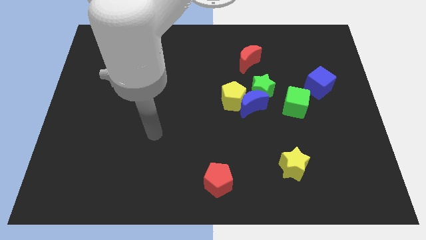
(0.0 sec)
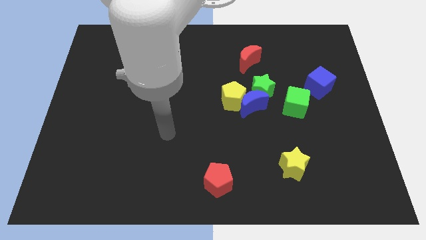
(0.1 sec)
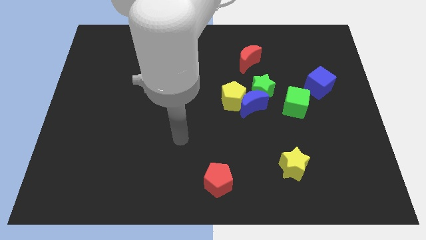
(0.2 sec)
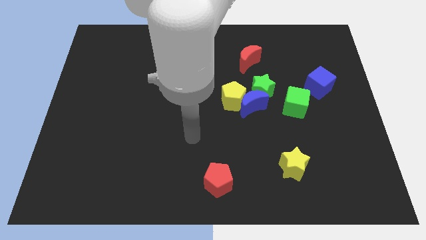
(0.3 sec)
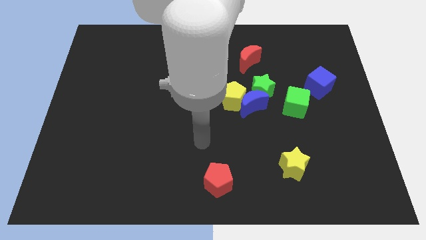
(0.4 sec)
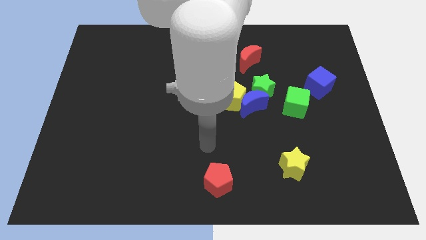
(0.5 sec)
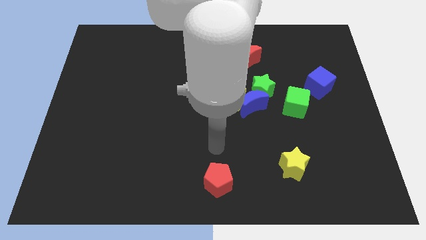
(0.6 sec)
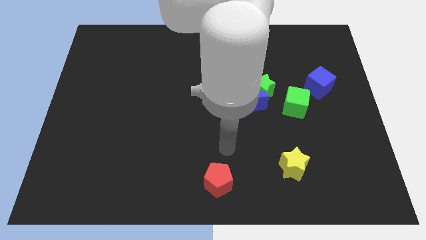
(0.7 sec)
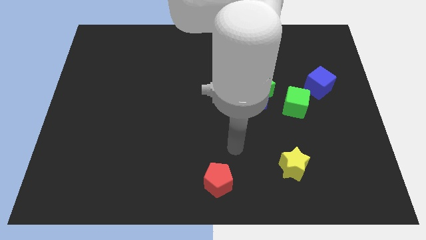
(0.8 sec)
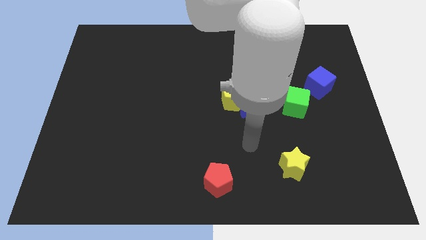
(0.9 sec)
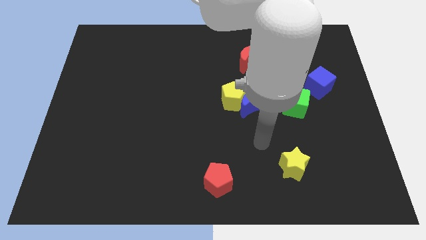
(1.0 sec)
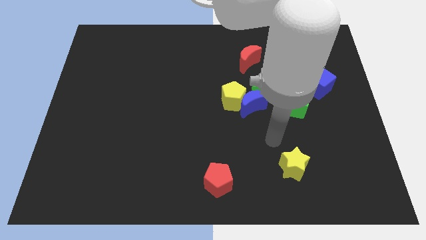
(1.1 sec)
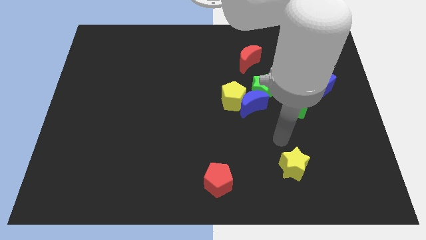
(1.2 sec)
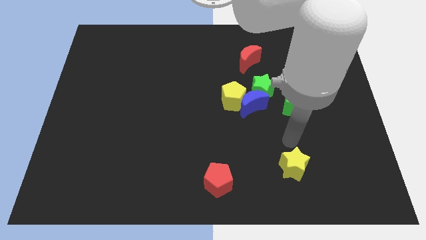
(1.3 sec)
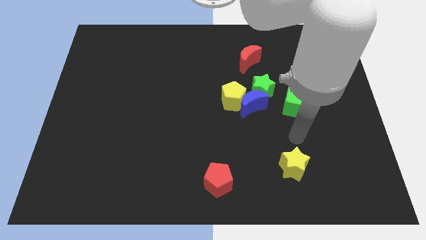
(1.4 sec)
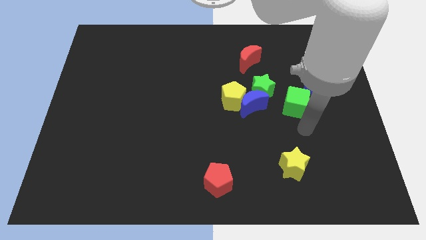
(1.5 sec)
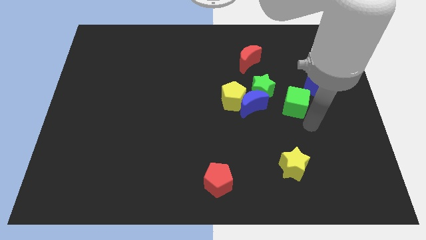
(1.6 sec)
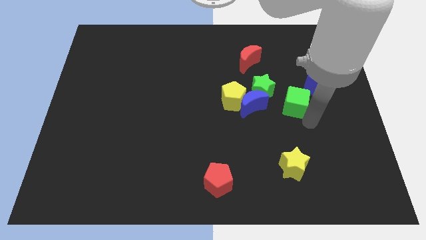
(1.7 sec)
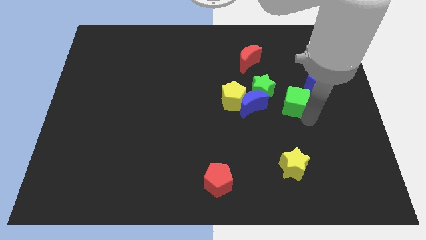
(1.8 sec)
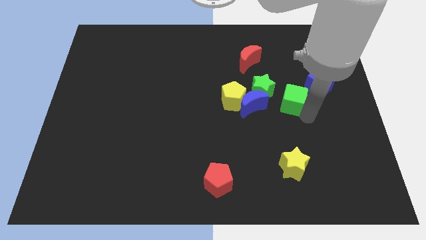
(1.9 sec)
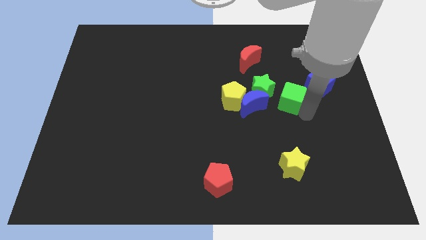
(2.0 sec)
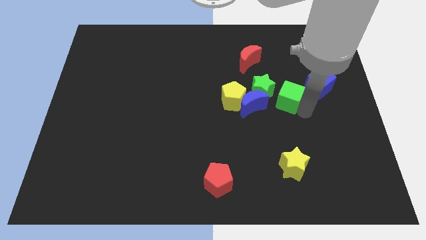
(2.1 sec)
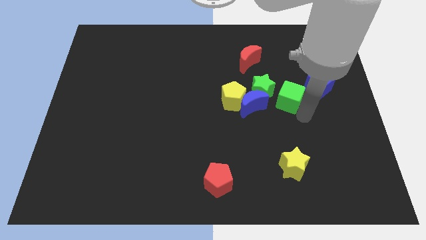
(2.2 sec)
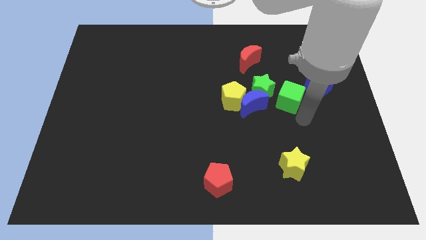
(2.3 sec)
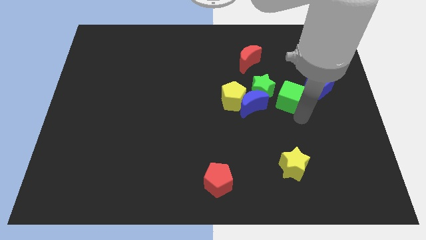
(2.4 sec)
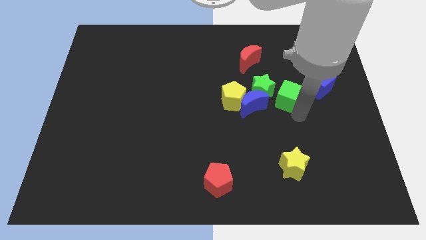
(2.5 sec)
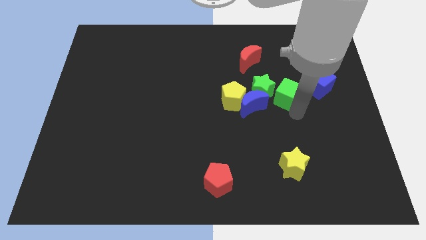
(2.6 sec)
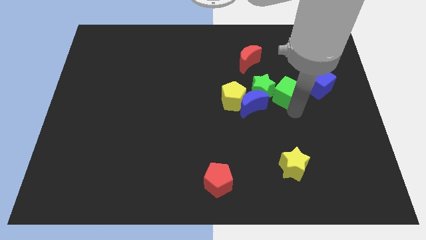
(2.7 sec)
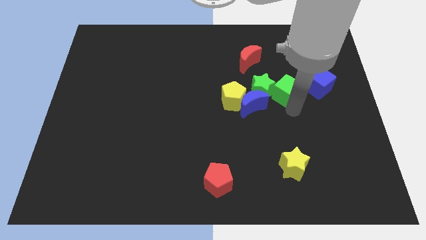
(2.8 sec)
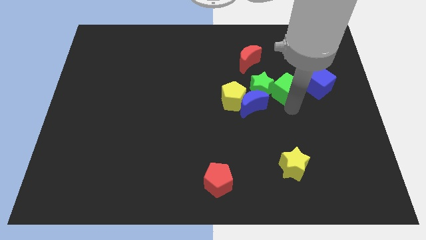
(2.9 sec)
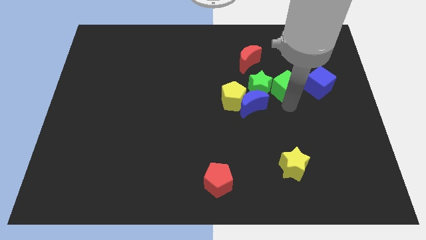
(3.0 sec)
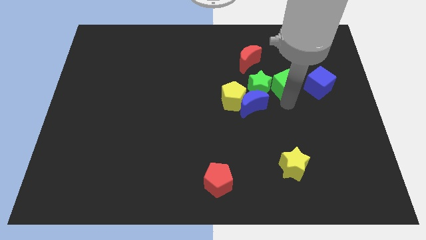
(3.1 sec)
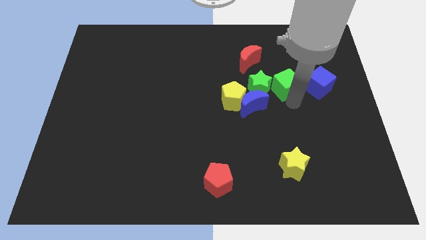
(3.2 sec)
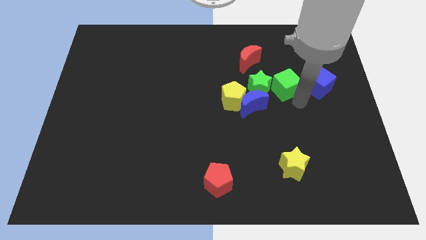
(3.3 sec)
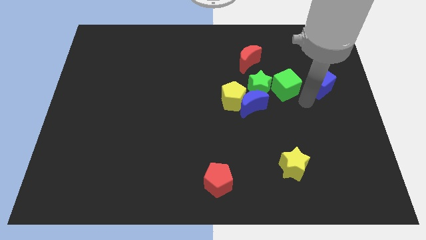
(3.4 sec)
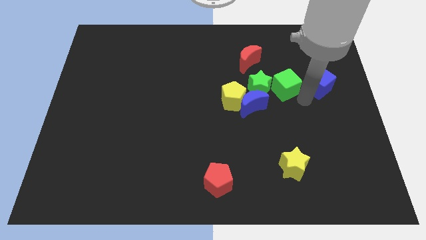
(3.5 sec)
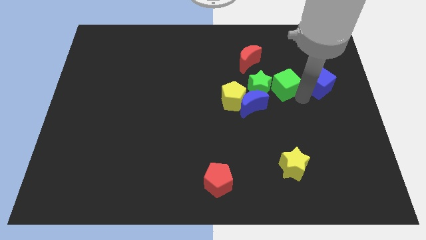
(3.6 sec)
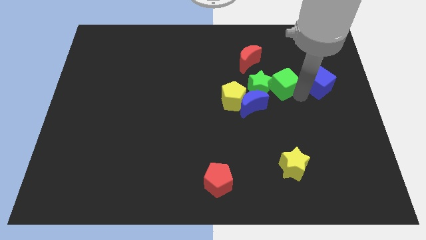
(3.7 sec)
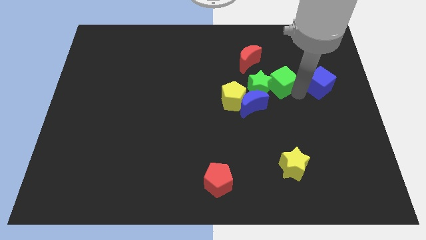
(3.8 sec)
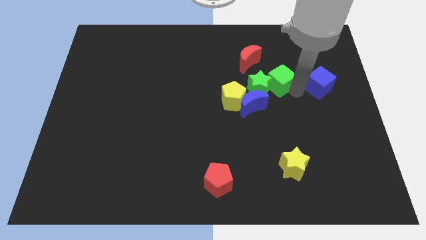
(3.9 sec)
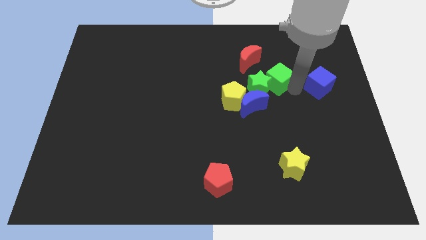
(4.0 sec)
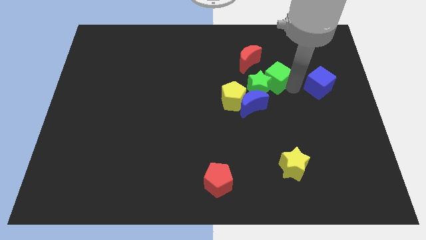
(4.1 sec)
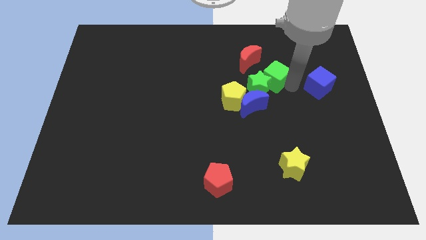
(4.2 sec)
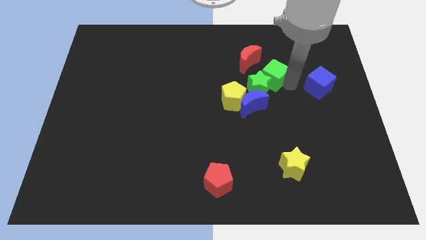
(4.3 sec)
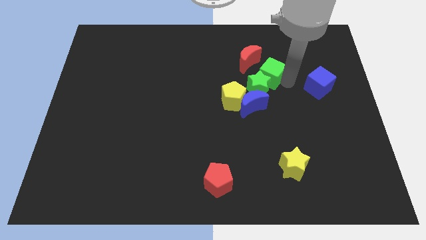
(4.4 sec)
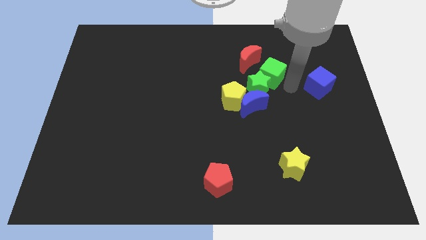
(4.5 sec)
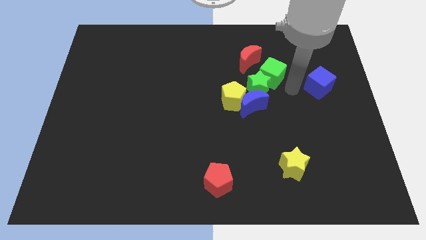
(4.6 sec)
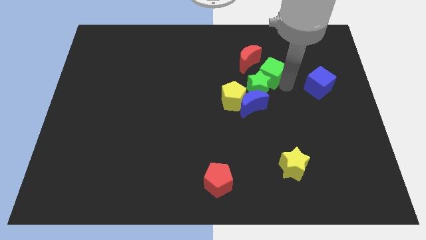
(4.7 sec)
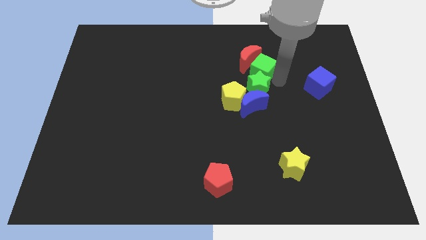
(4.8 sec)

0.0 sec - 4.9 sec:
put the green cube towards the red moon

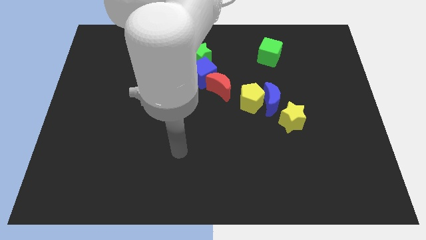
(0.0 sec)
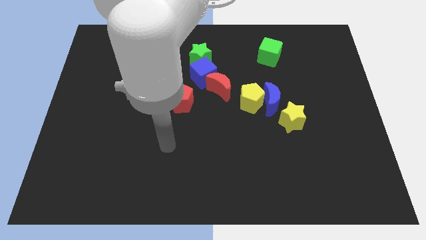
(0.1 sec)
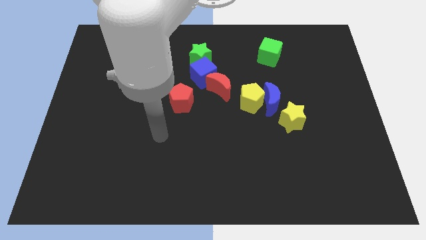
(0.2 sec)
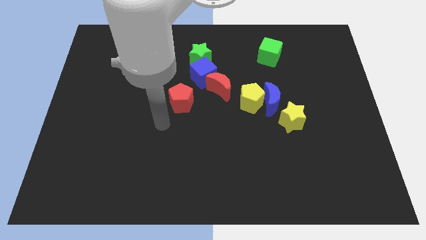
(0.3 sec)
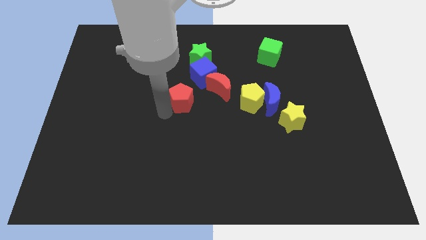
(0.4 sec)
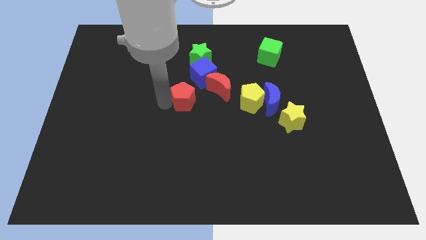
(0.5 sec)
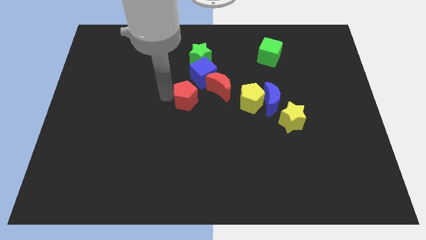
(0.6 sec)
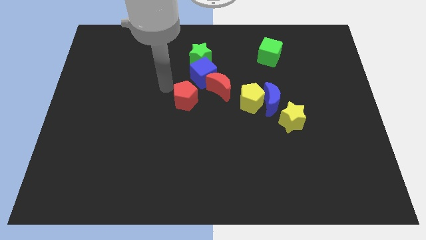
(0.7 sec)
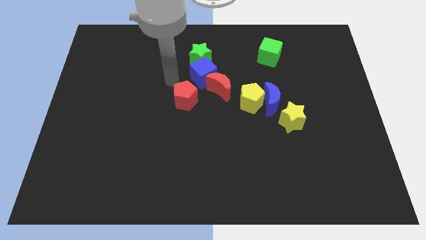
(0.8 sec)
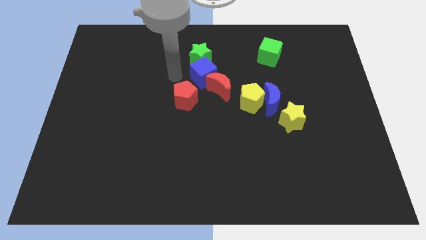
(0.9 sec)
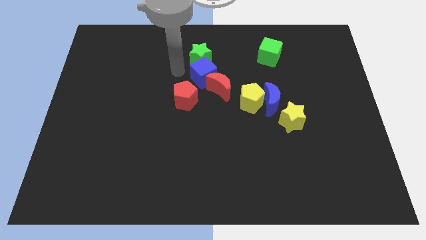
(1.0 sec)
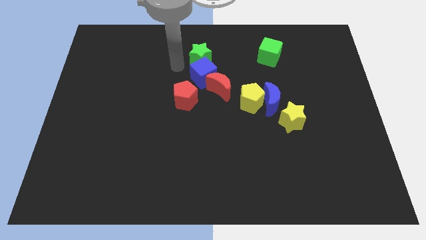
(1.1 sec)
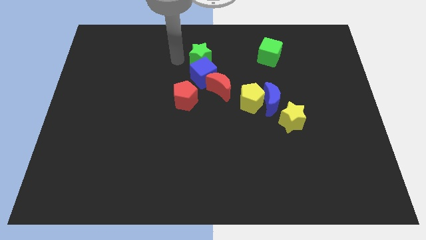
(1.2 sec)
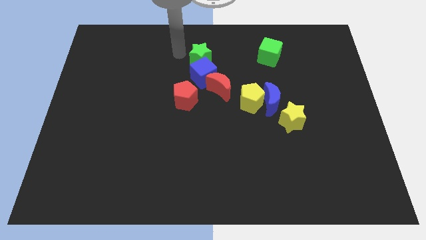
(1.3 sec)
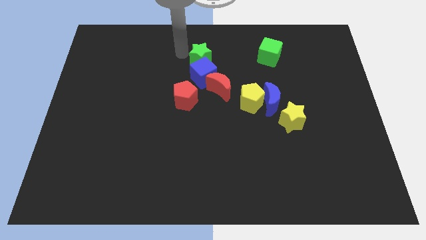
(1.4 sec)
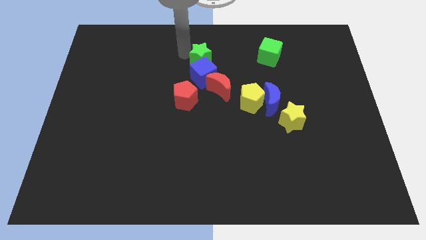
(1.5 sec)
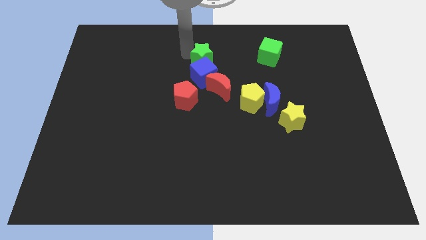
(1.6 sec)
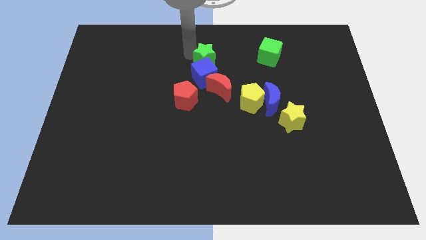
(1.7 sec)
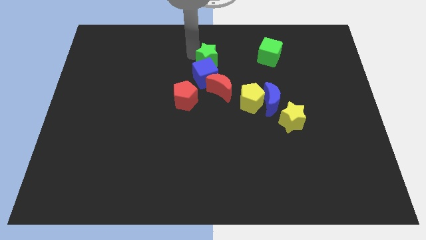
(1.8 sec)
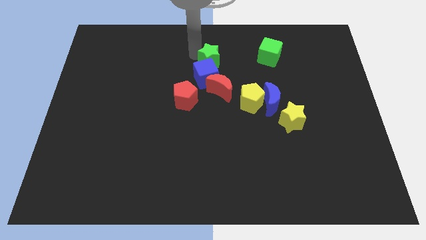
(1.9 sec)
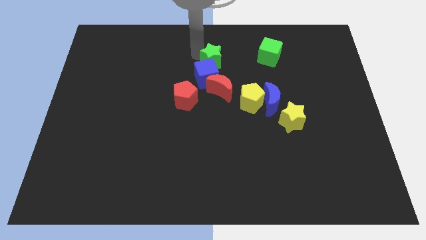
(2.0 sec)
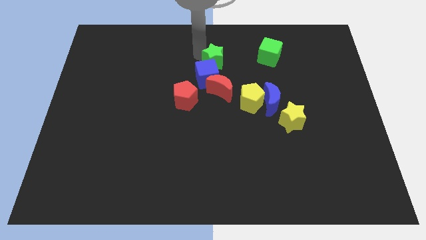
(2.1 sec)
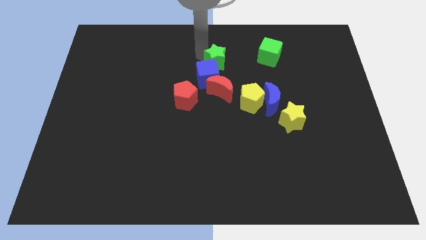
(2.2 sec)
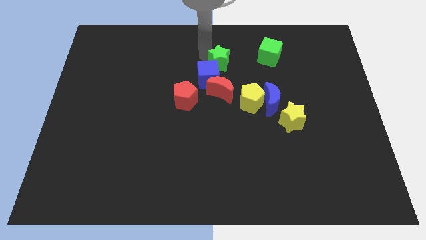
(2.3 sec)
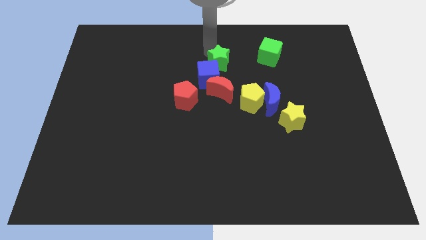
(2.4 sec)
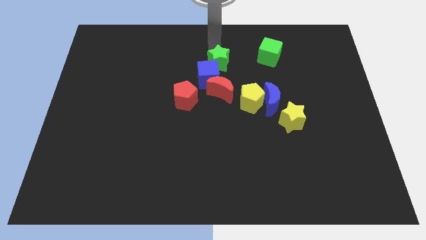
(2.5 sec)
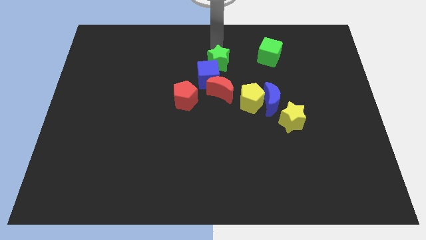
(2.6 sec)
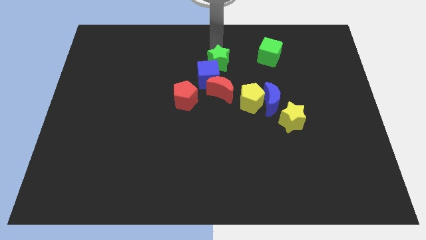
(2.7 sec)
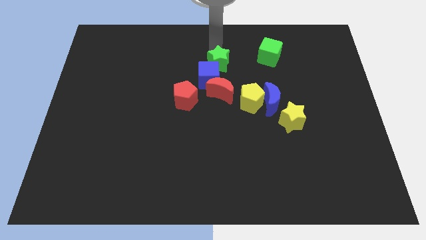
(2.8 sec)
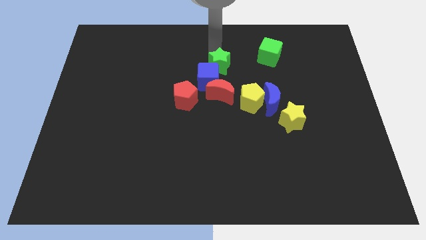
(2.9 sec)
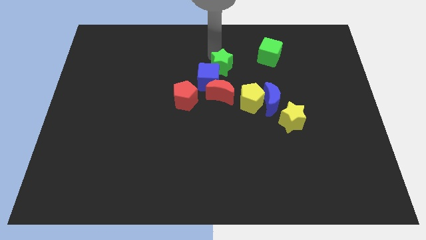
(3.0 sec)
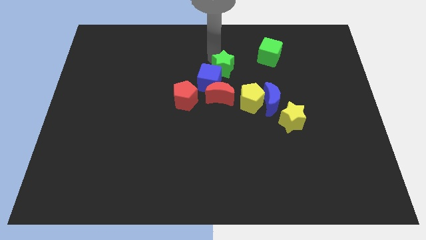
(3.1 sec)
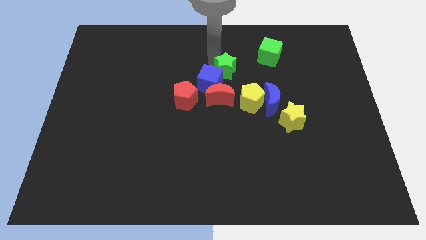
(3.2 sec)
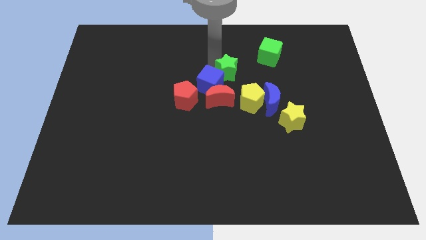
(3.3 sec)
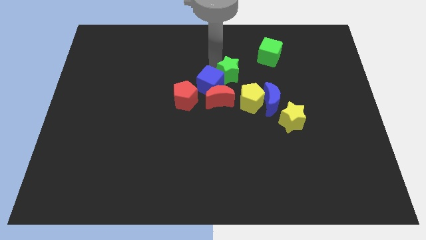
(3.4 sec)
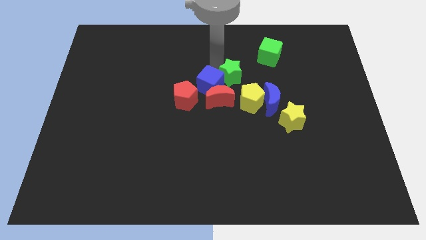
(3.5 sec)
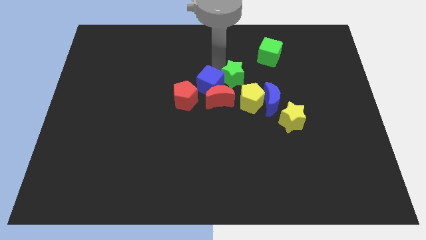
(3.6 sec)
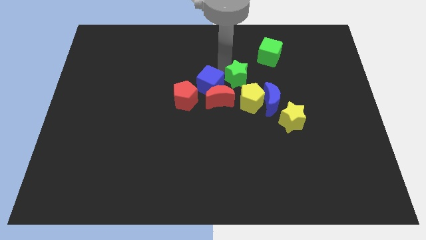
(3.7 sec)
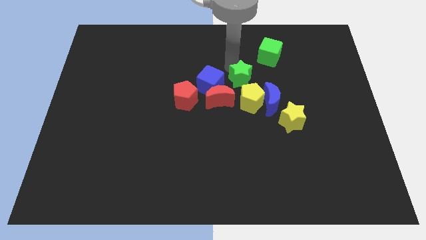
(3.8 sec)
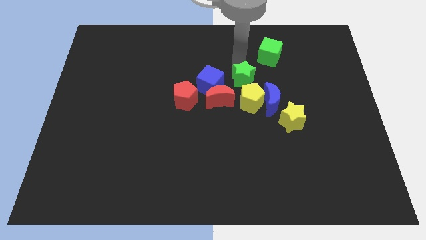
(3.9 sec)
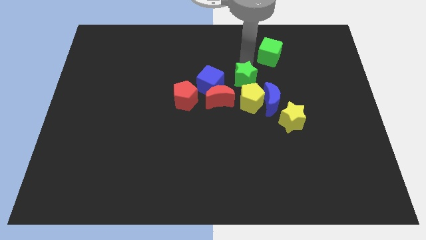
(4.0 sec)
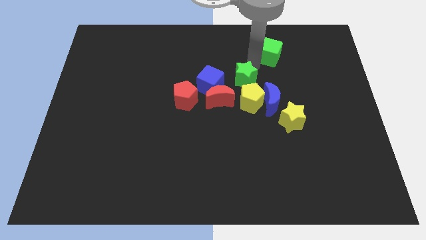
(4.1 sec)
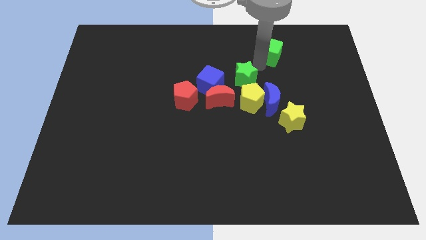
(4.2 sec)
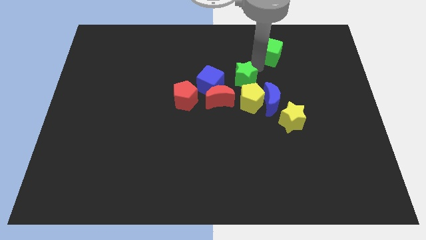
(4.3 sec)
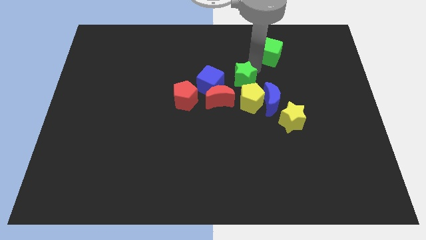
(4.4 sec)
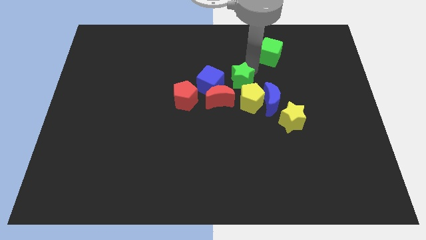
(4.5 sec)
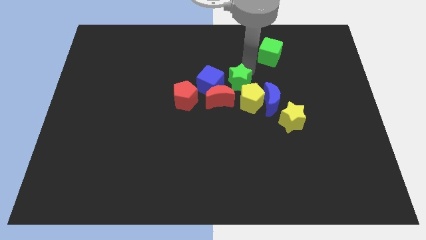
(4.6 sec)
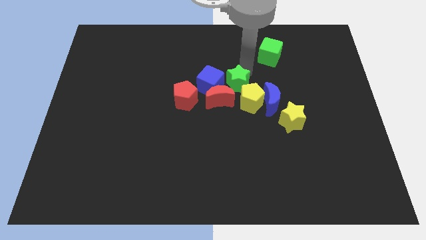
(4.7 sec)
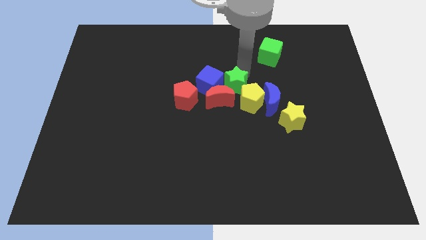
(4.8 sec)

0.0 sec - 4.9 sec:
put the green star close to the red moon
